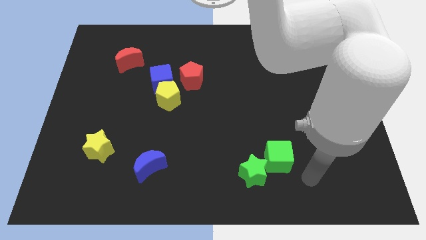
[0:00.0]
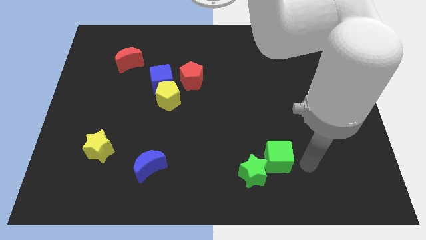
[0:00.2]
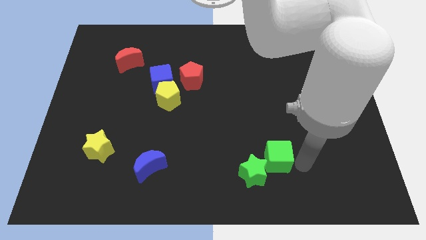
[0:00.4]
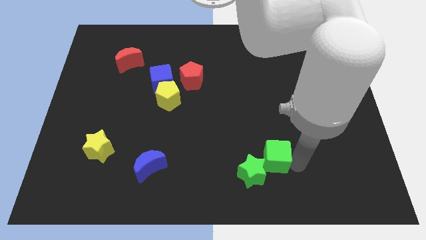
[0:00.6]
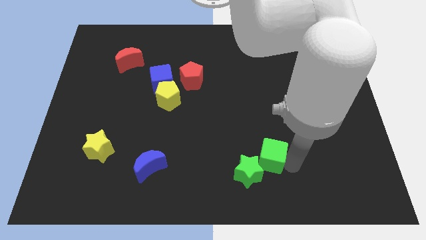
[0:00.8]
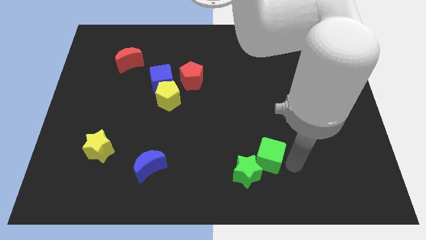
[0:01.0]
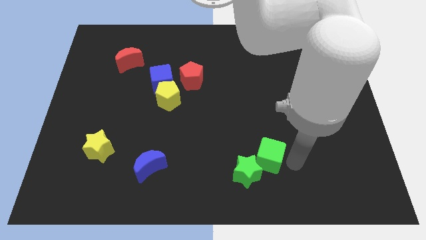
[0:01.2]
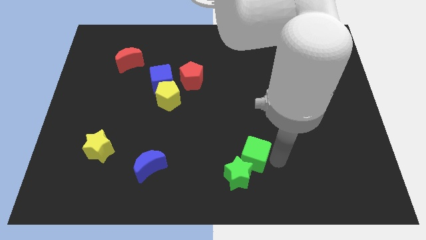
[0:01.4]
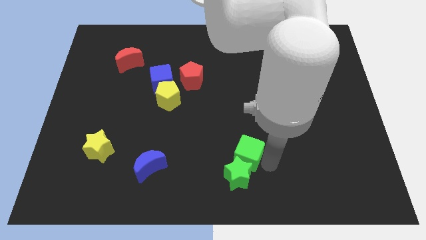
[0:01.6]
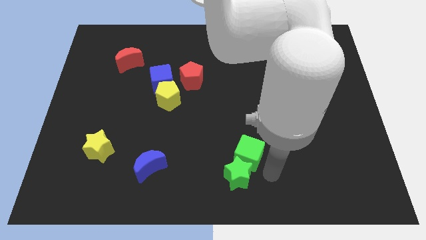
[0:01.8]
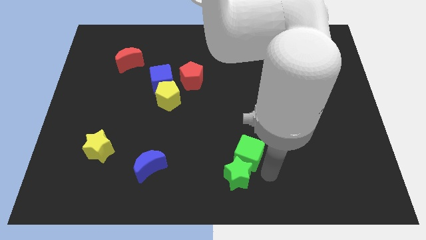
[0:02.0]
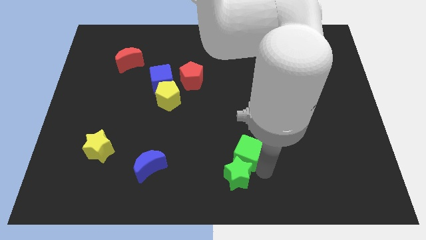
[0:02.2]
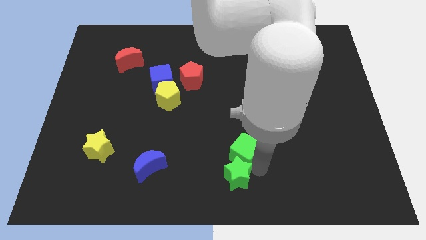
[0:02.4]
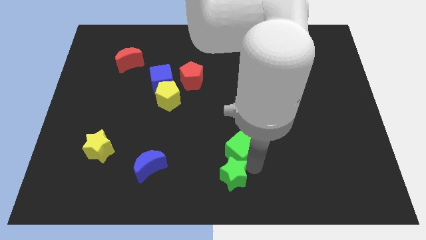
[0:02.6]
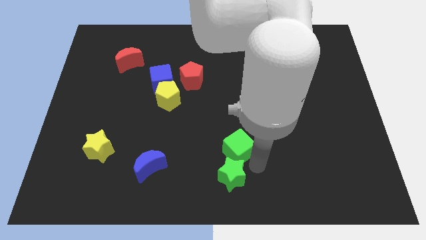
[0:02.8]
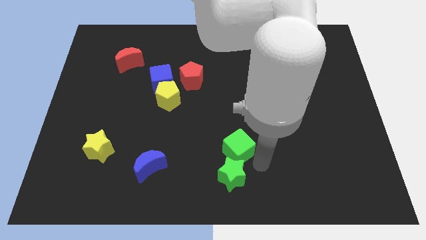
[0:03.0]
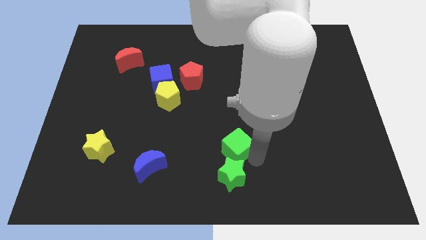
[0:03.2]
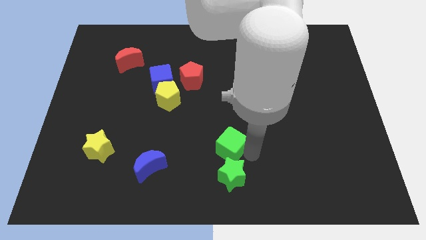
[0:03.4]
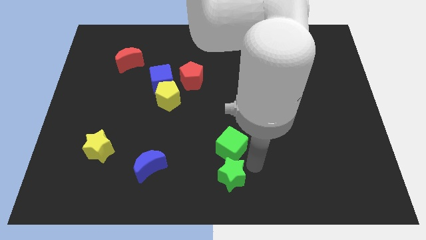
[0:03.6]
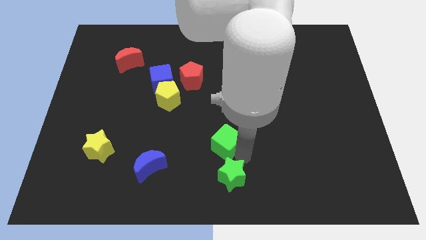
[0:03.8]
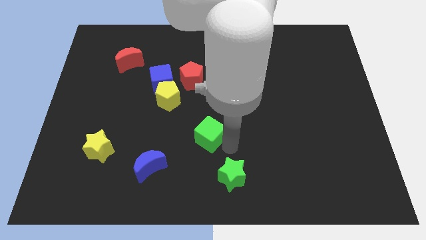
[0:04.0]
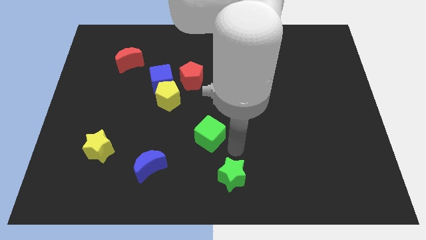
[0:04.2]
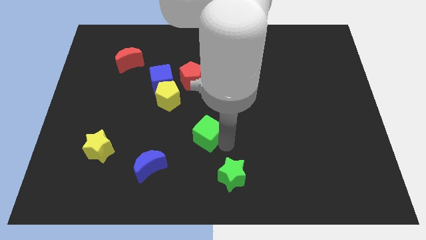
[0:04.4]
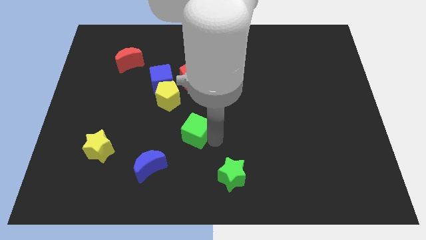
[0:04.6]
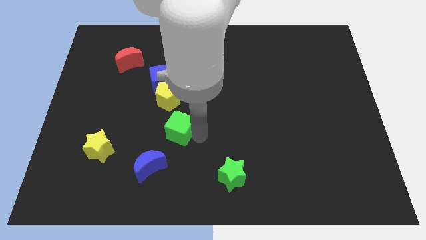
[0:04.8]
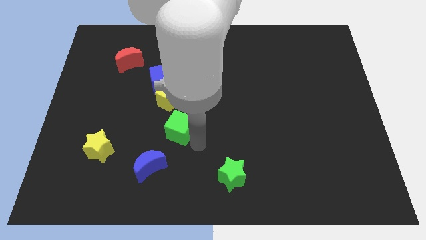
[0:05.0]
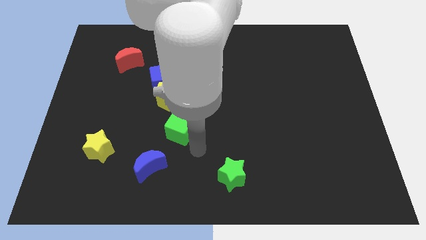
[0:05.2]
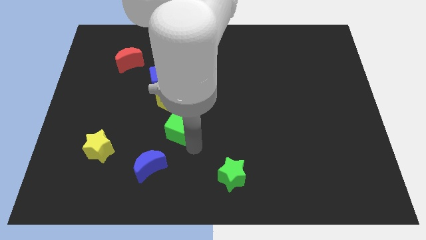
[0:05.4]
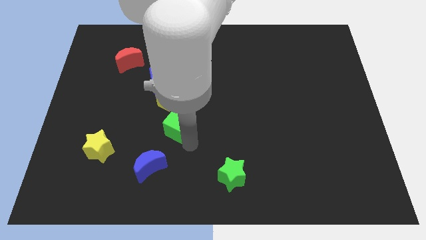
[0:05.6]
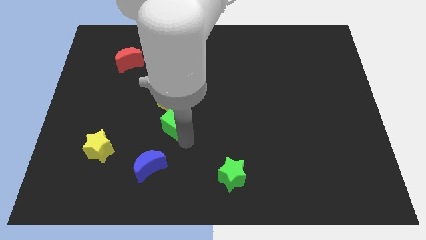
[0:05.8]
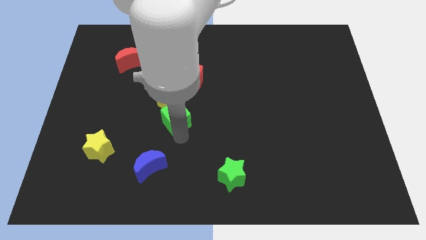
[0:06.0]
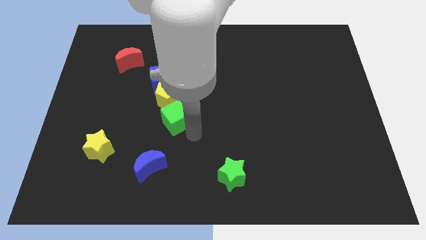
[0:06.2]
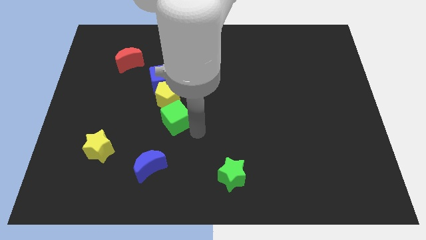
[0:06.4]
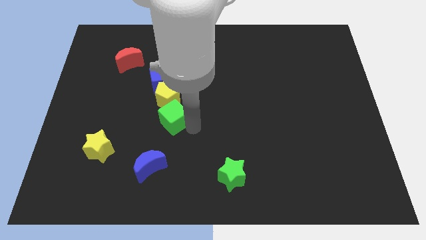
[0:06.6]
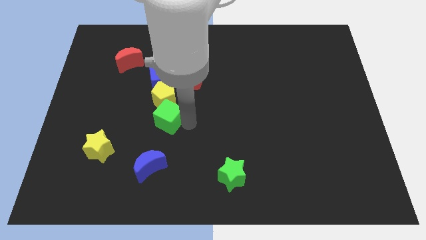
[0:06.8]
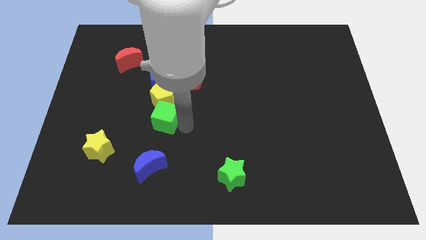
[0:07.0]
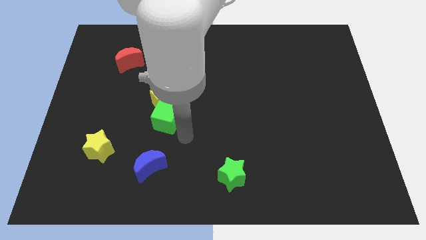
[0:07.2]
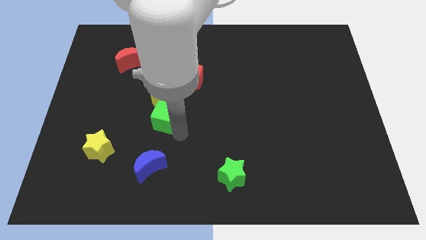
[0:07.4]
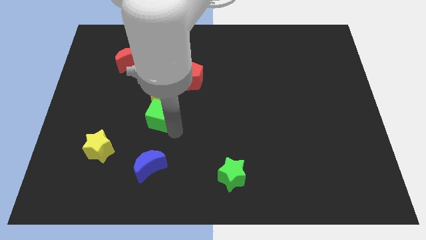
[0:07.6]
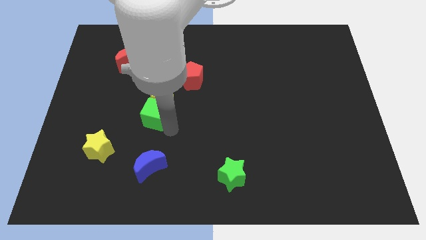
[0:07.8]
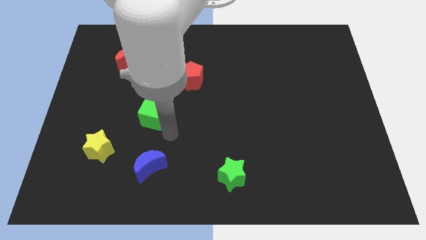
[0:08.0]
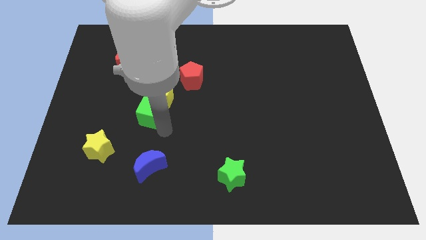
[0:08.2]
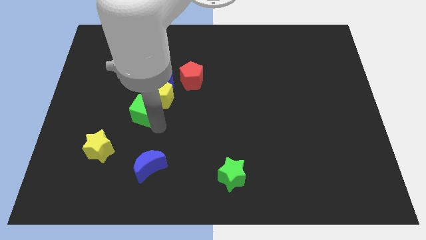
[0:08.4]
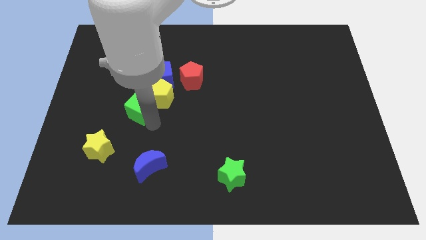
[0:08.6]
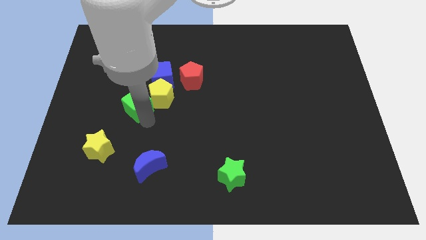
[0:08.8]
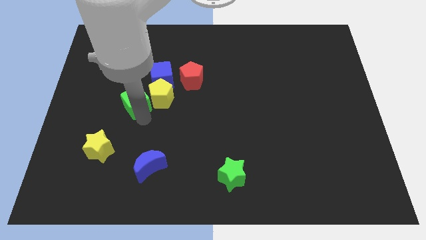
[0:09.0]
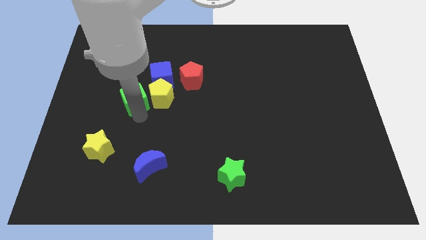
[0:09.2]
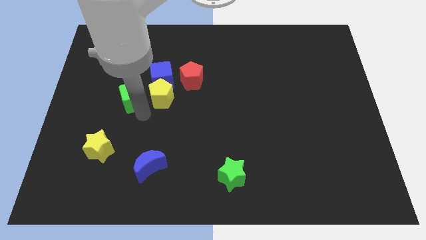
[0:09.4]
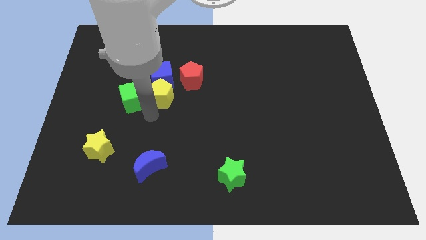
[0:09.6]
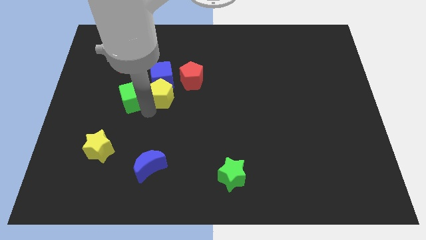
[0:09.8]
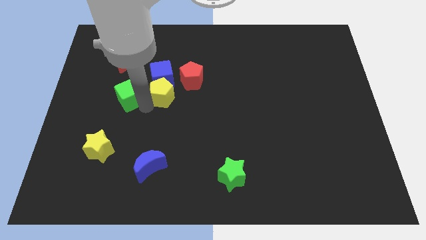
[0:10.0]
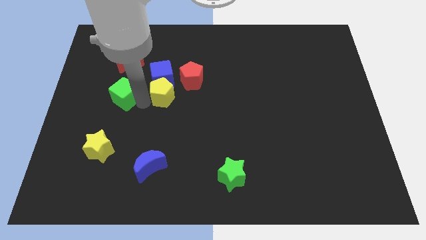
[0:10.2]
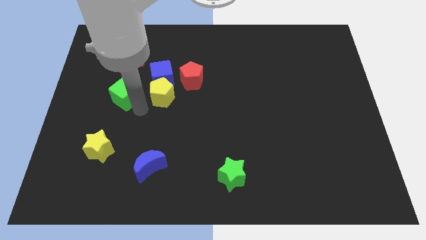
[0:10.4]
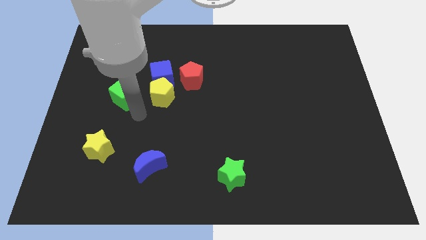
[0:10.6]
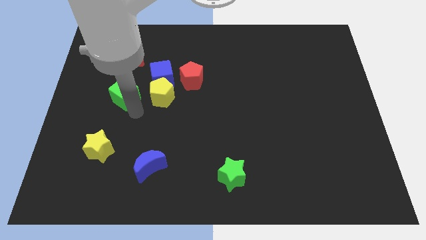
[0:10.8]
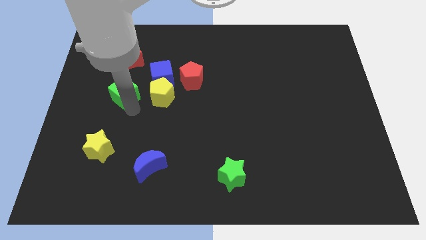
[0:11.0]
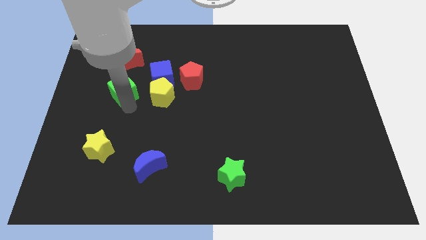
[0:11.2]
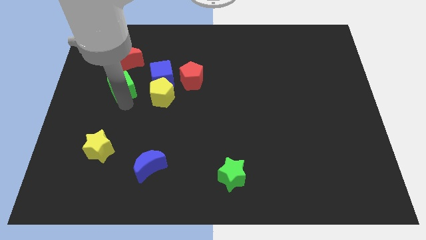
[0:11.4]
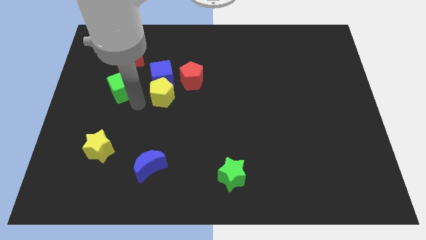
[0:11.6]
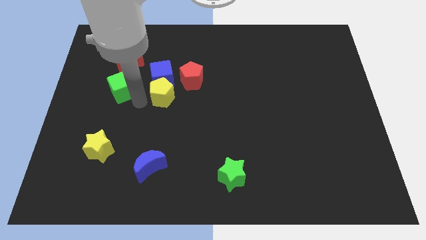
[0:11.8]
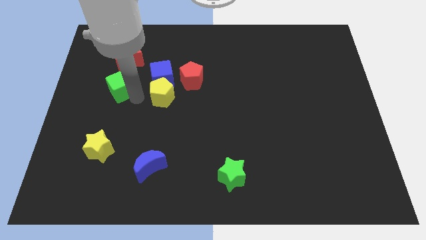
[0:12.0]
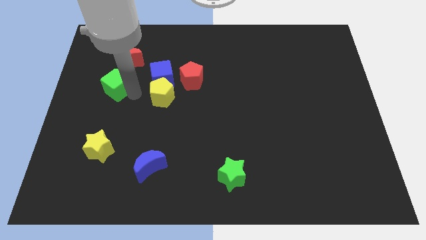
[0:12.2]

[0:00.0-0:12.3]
slide the green cube to the bottom left side of the red moon
